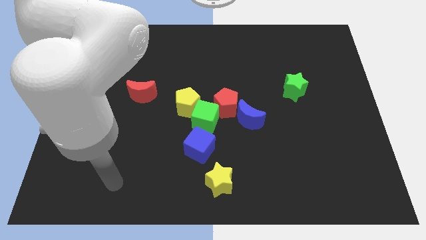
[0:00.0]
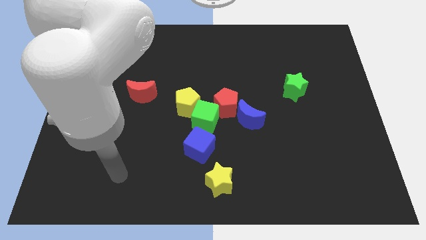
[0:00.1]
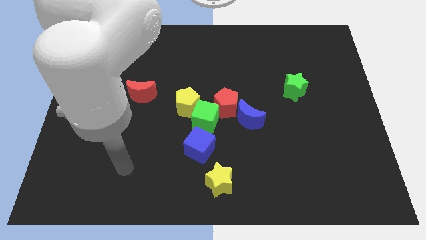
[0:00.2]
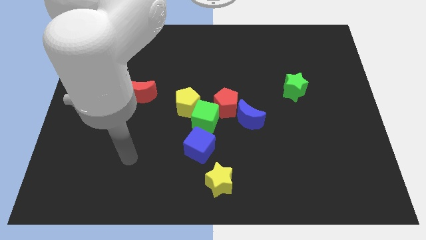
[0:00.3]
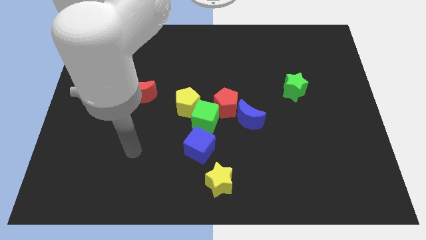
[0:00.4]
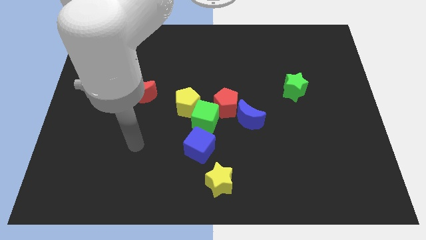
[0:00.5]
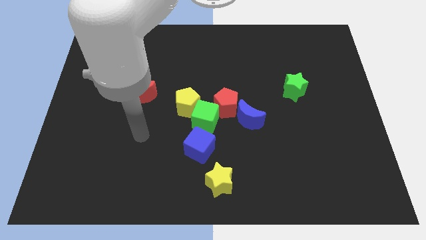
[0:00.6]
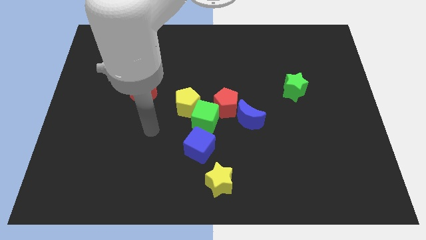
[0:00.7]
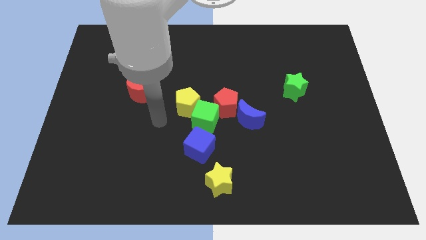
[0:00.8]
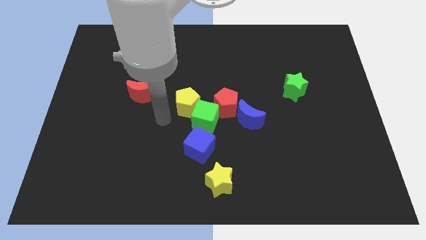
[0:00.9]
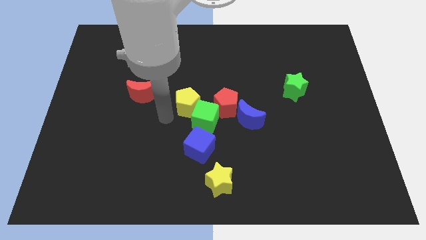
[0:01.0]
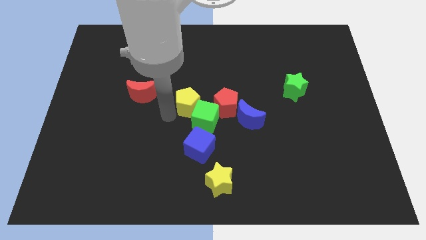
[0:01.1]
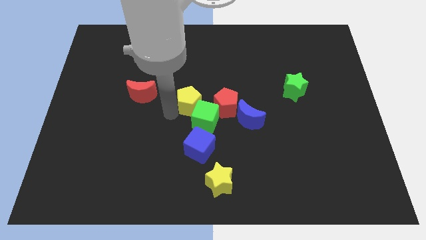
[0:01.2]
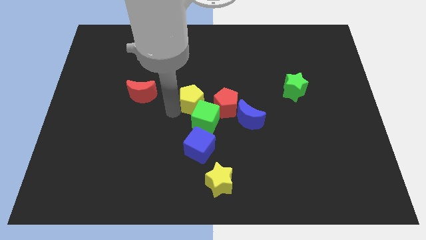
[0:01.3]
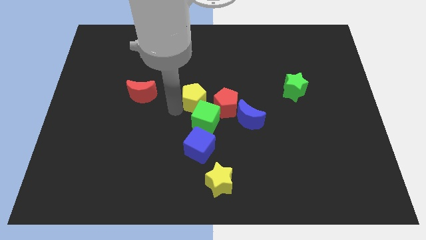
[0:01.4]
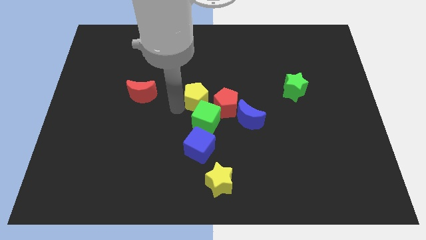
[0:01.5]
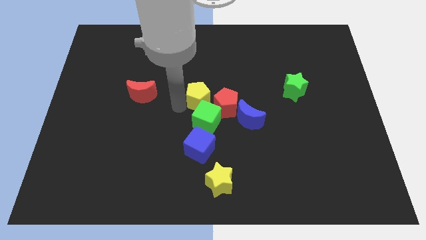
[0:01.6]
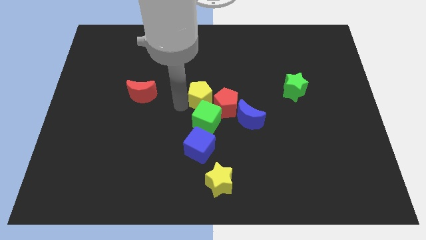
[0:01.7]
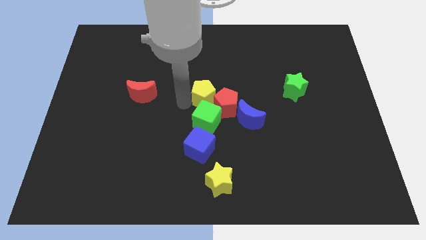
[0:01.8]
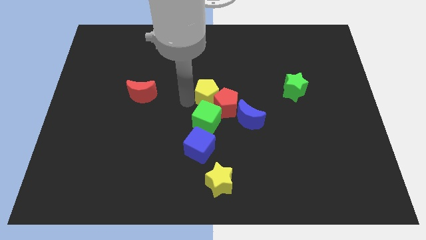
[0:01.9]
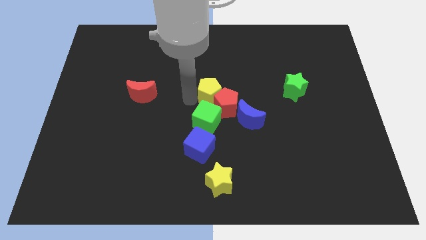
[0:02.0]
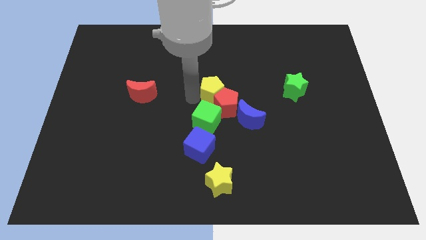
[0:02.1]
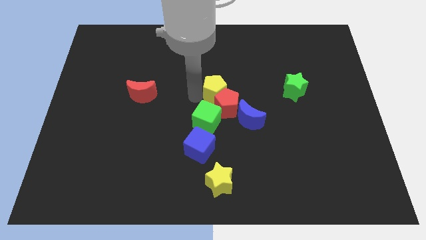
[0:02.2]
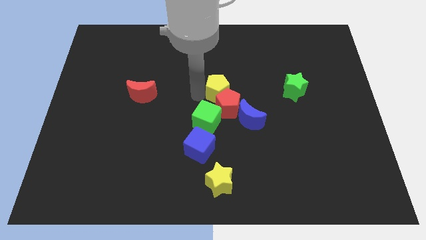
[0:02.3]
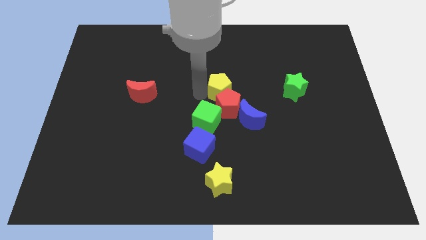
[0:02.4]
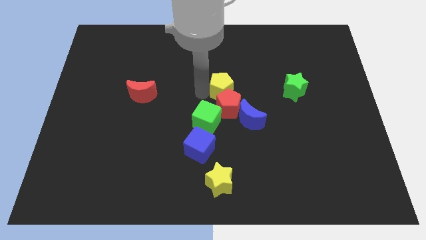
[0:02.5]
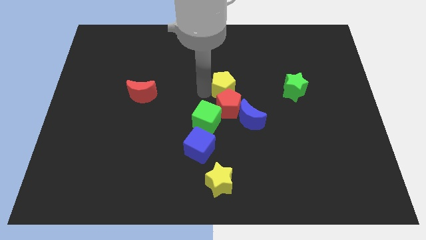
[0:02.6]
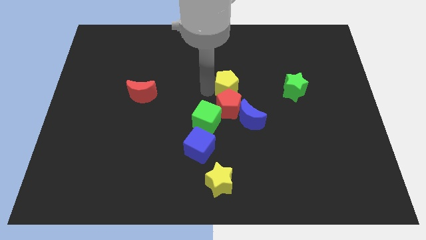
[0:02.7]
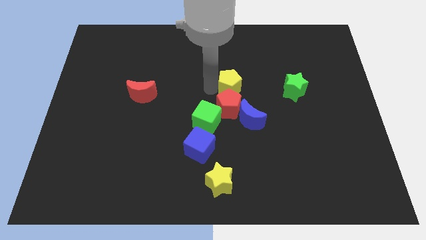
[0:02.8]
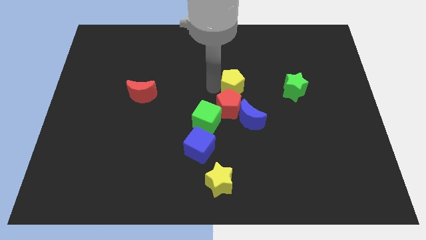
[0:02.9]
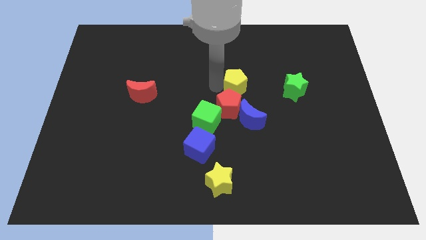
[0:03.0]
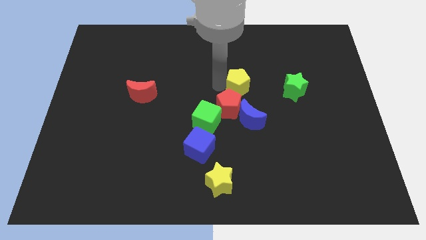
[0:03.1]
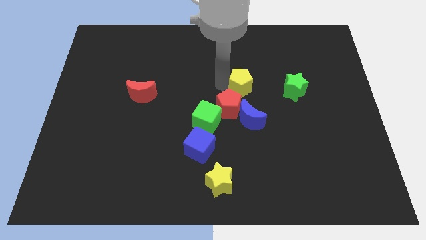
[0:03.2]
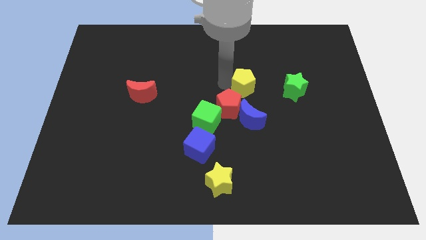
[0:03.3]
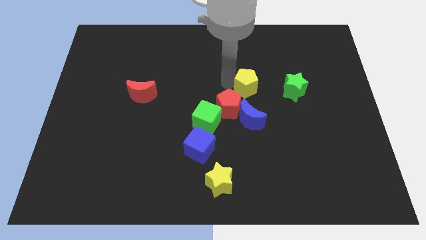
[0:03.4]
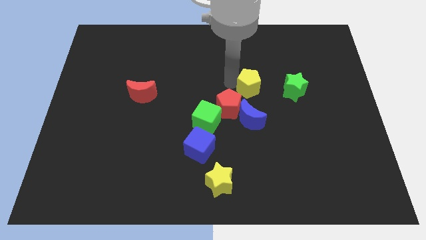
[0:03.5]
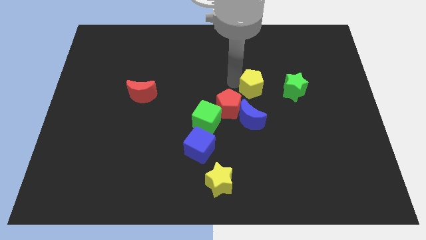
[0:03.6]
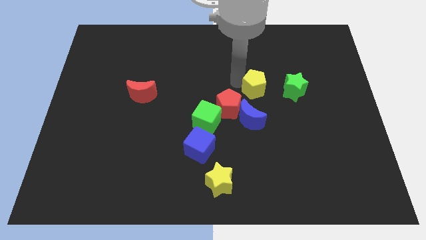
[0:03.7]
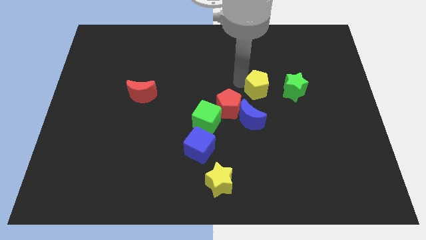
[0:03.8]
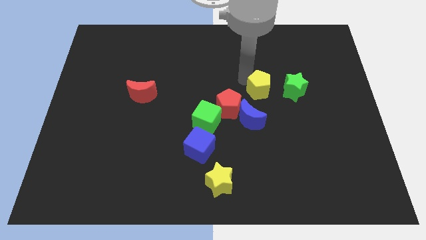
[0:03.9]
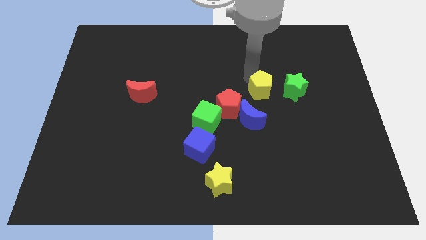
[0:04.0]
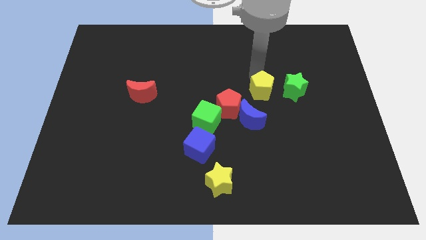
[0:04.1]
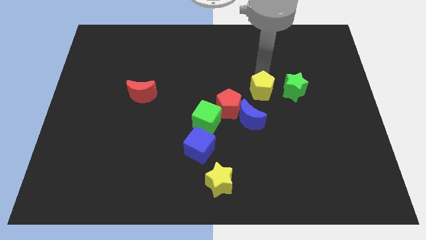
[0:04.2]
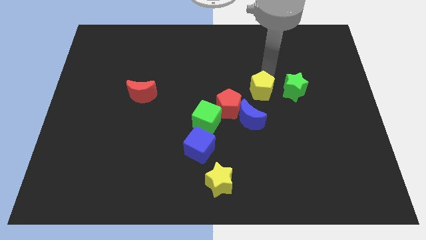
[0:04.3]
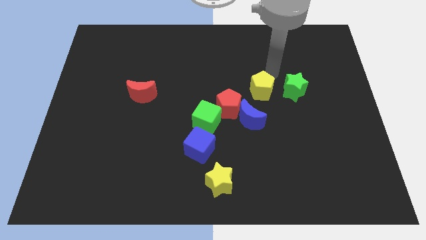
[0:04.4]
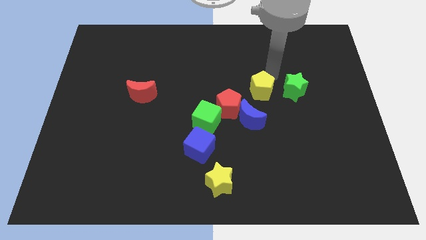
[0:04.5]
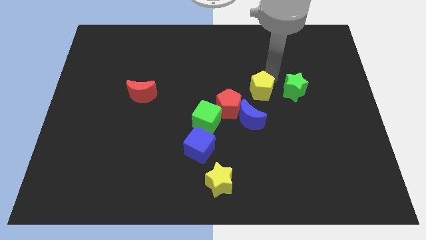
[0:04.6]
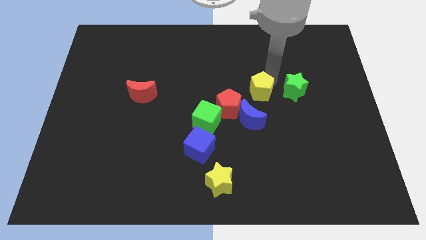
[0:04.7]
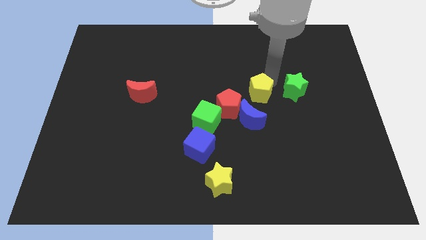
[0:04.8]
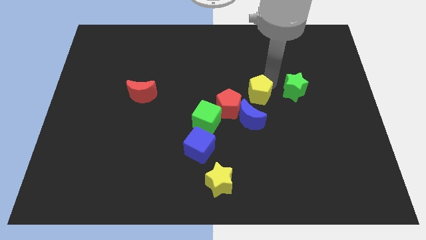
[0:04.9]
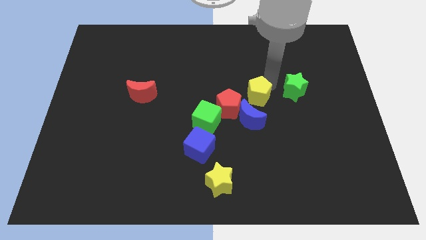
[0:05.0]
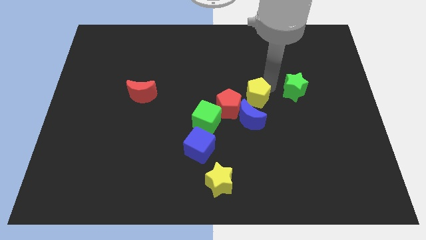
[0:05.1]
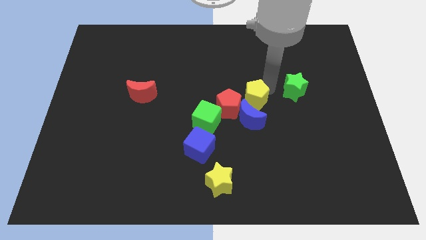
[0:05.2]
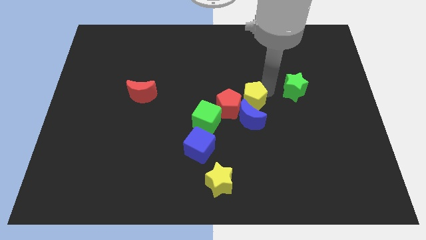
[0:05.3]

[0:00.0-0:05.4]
slide the yellow pentagon towards the blue moon

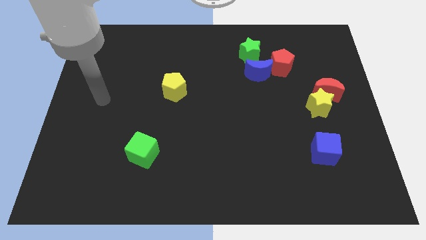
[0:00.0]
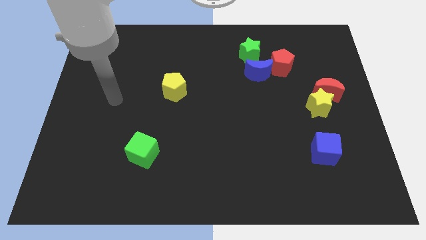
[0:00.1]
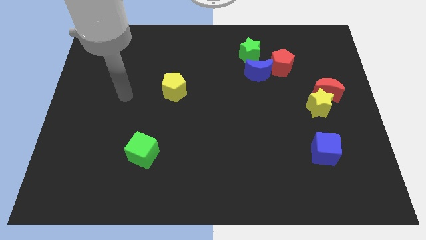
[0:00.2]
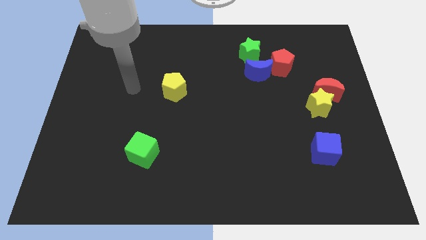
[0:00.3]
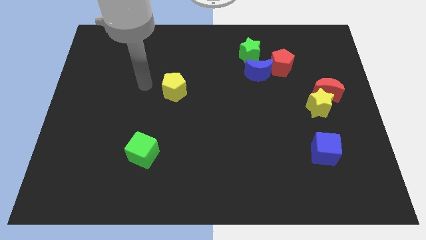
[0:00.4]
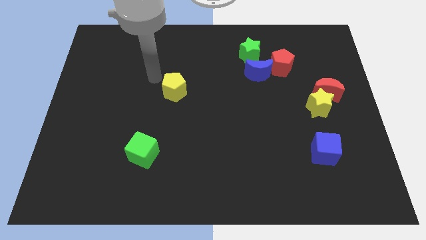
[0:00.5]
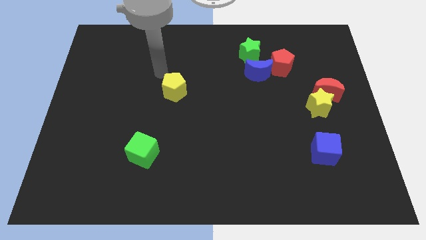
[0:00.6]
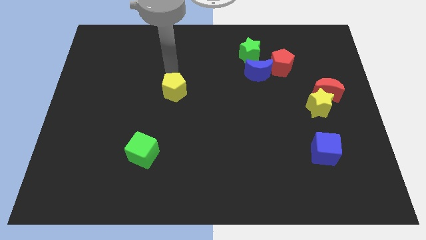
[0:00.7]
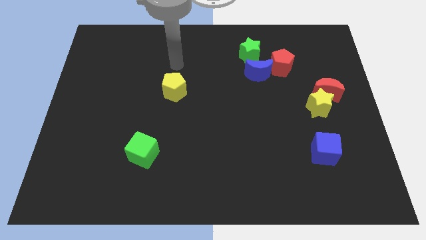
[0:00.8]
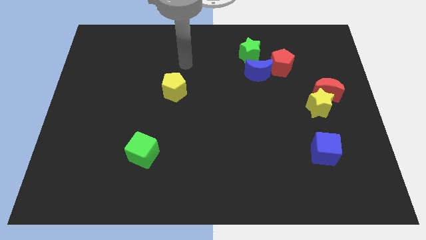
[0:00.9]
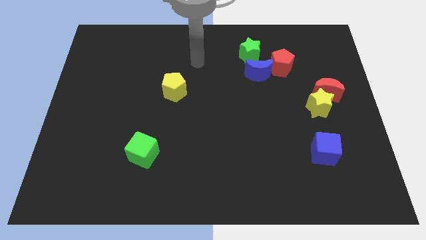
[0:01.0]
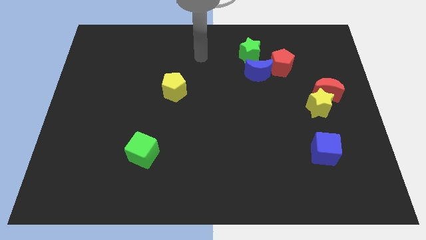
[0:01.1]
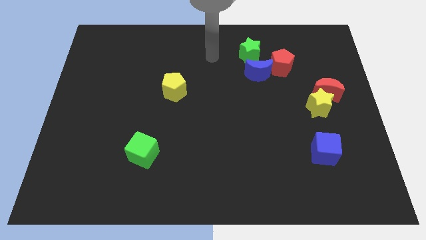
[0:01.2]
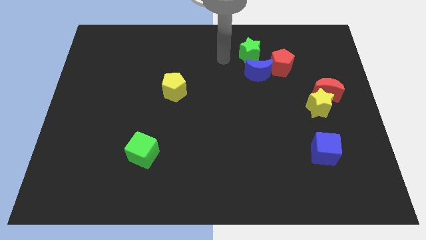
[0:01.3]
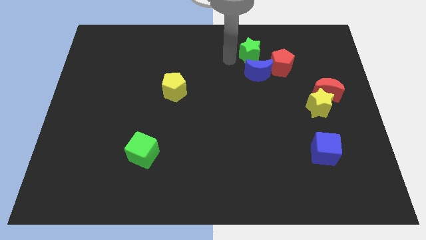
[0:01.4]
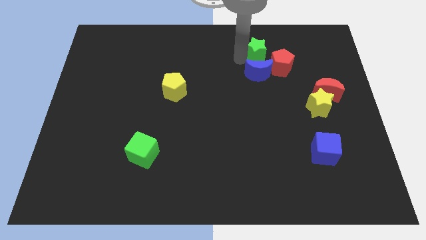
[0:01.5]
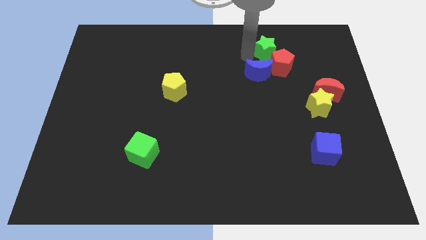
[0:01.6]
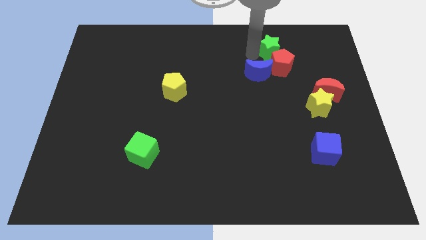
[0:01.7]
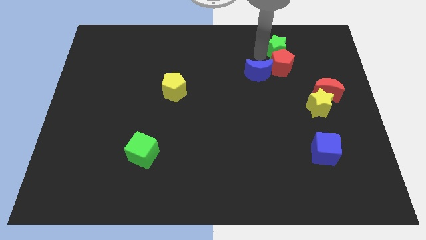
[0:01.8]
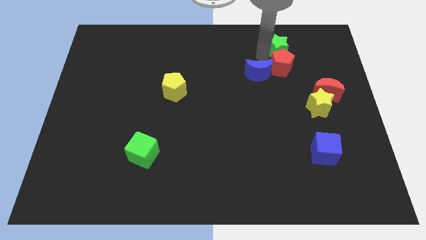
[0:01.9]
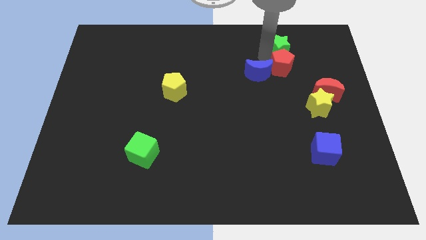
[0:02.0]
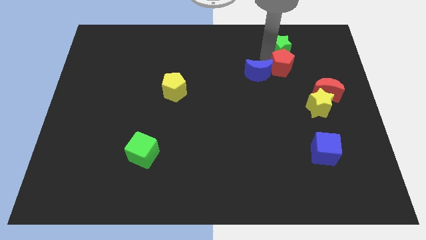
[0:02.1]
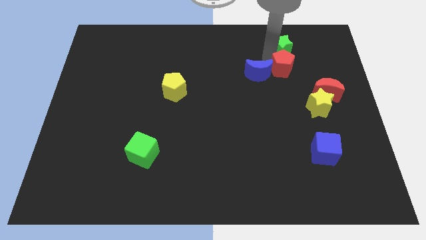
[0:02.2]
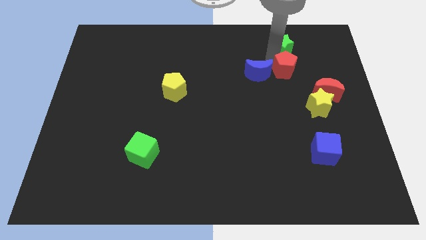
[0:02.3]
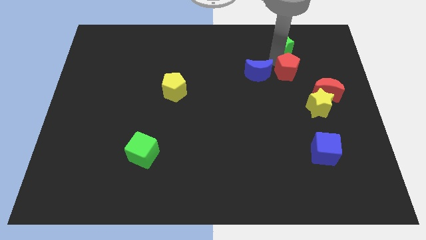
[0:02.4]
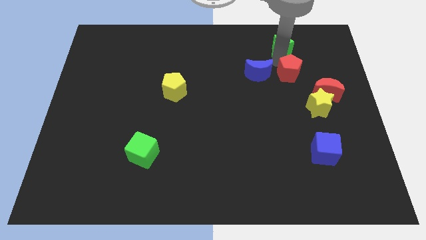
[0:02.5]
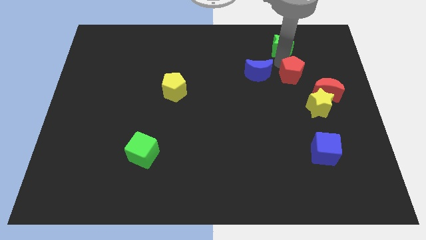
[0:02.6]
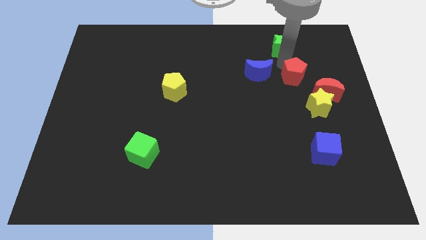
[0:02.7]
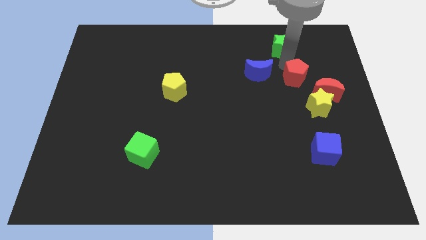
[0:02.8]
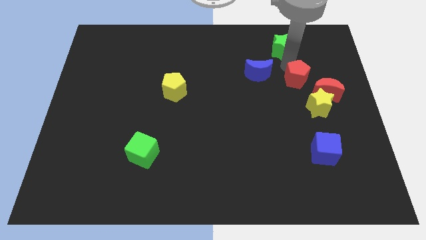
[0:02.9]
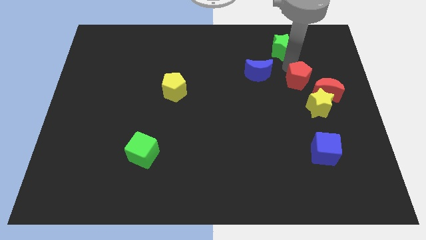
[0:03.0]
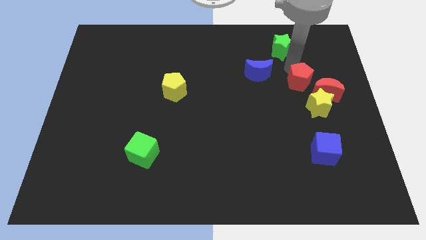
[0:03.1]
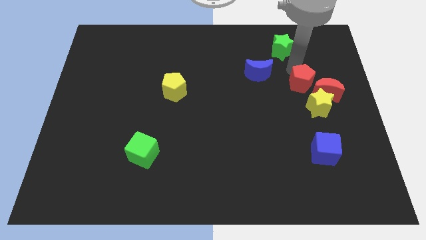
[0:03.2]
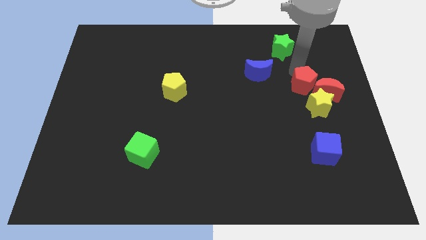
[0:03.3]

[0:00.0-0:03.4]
push the red pentagon to the red moon
